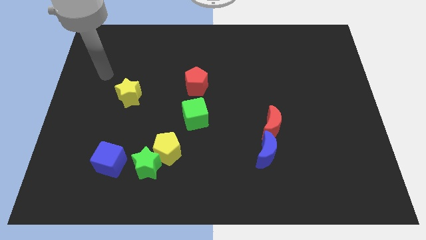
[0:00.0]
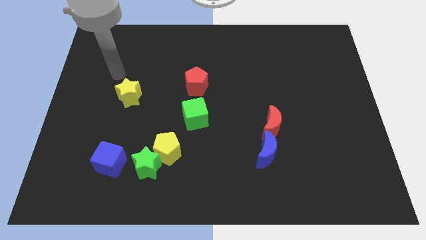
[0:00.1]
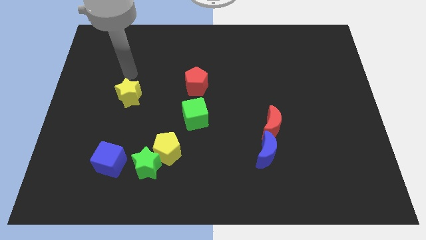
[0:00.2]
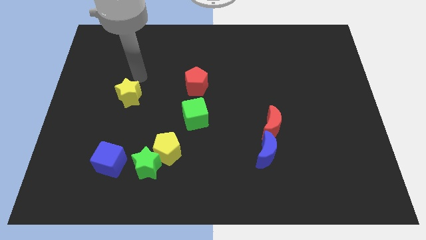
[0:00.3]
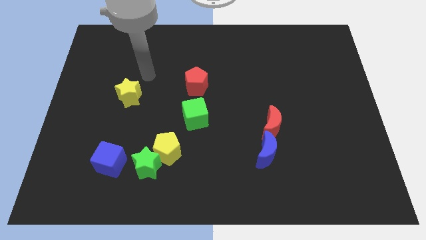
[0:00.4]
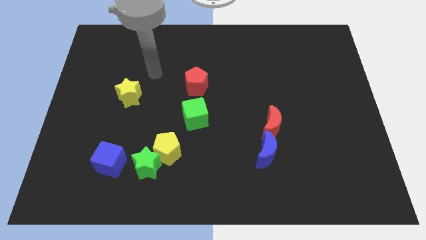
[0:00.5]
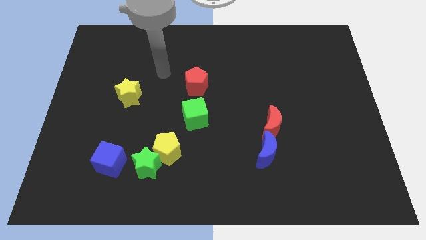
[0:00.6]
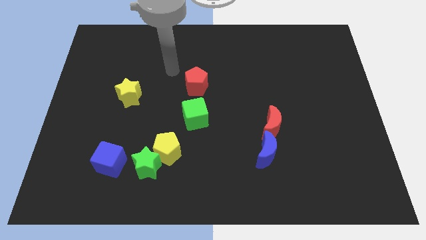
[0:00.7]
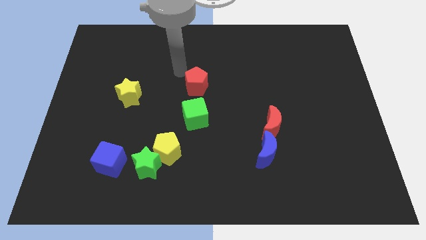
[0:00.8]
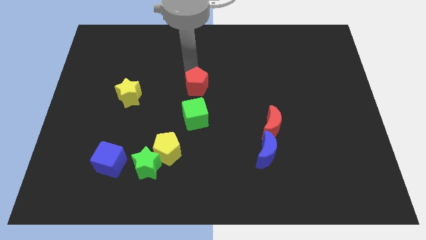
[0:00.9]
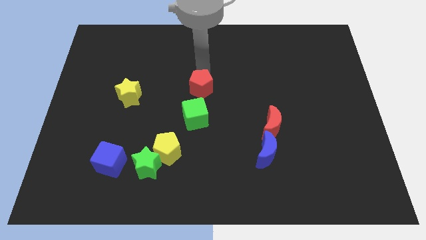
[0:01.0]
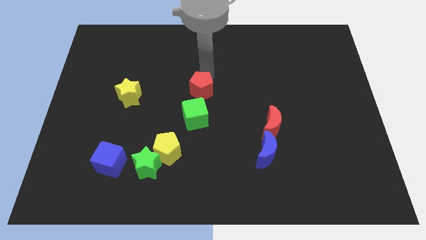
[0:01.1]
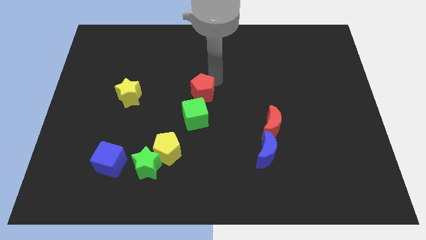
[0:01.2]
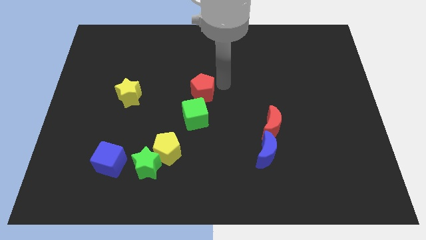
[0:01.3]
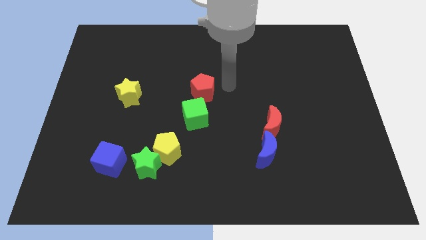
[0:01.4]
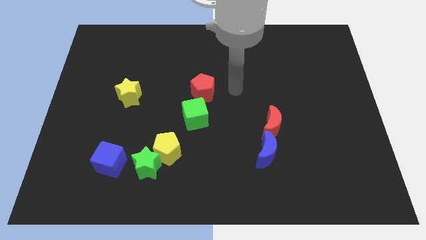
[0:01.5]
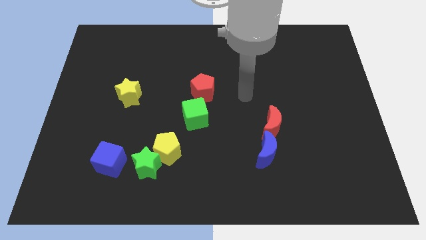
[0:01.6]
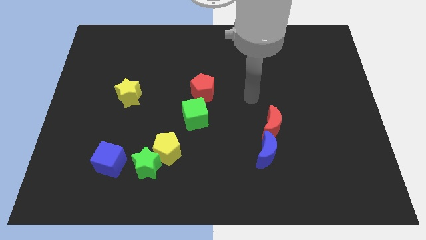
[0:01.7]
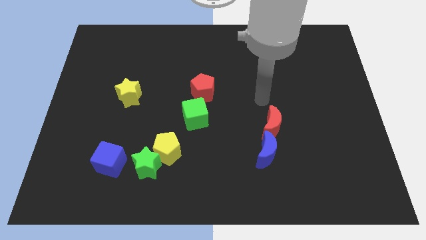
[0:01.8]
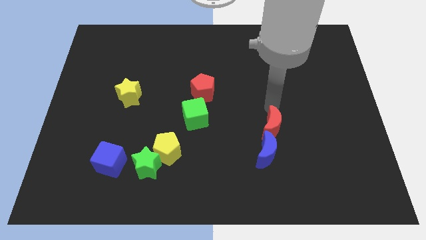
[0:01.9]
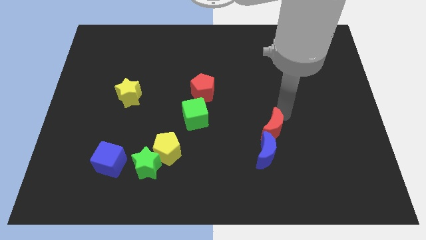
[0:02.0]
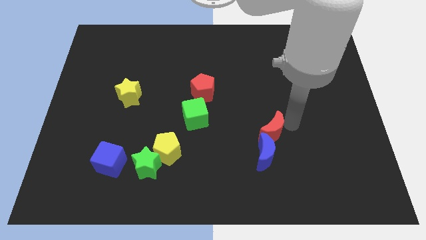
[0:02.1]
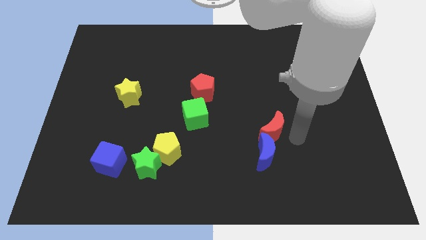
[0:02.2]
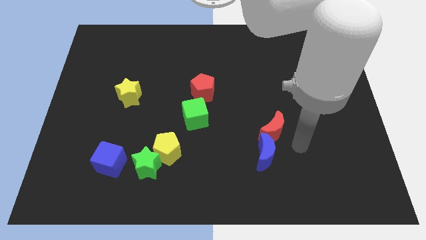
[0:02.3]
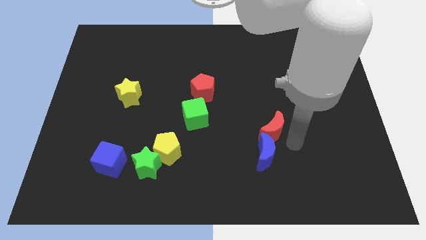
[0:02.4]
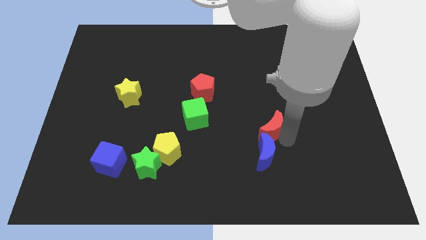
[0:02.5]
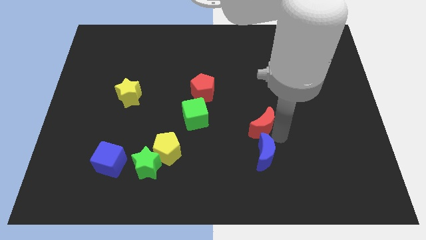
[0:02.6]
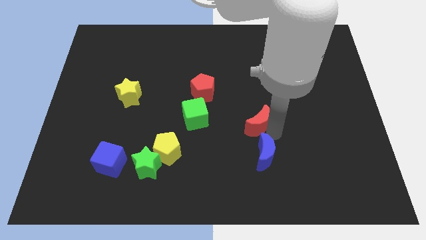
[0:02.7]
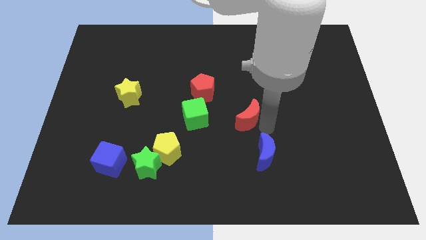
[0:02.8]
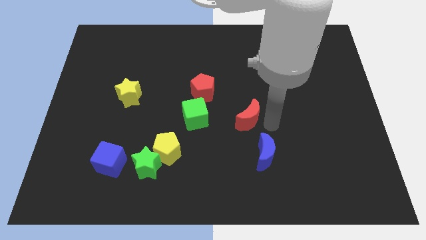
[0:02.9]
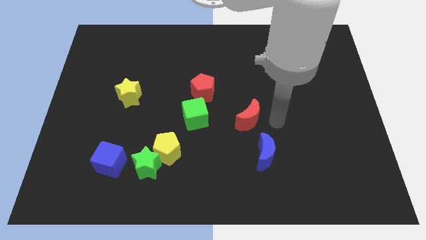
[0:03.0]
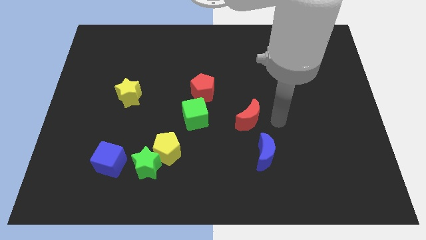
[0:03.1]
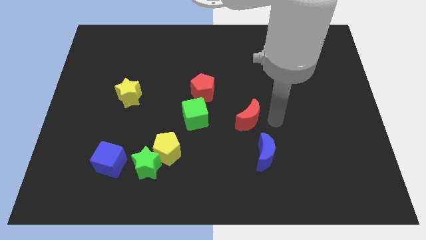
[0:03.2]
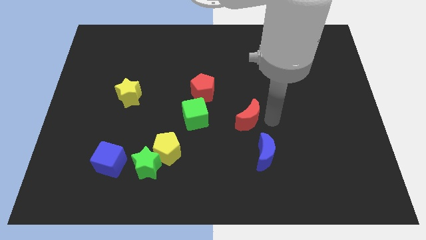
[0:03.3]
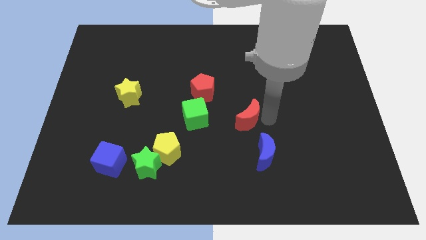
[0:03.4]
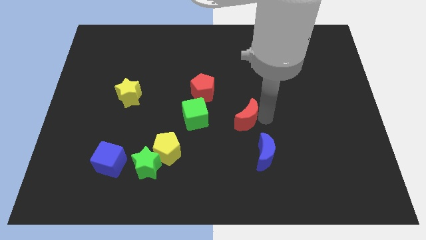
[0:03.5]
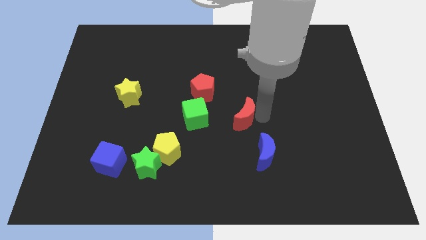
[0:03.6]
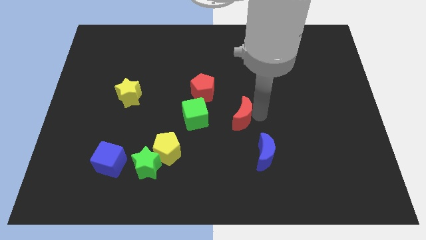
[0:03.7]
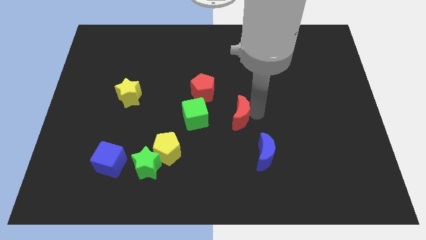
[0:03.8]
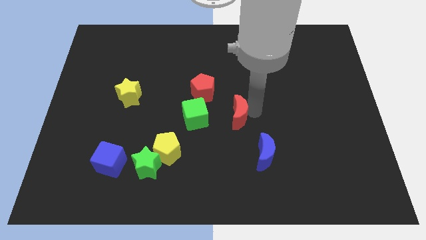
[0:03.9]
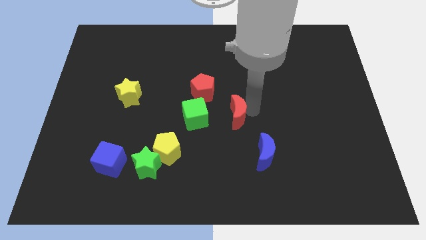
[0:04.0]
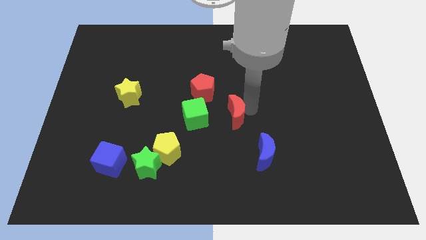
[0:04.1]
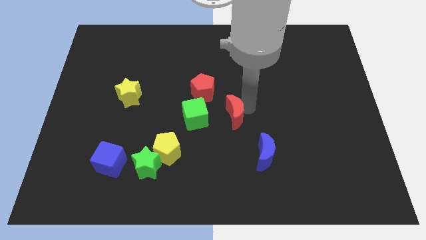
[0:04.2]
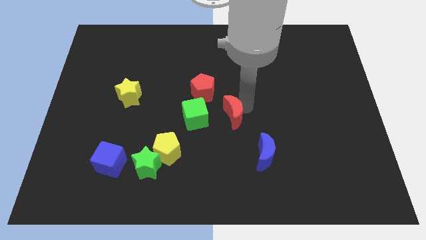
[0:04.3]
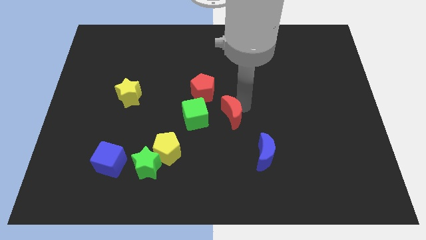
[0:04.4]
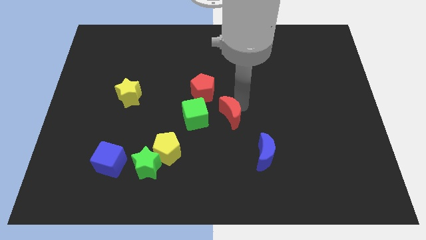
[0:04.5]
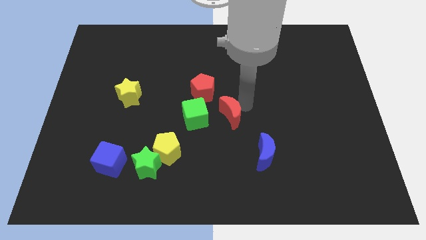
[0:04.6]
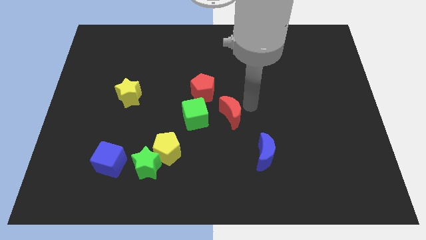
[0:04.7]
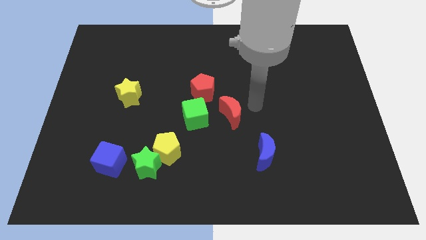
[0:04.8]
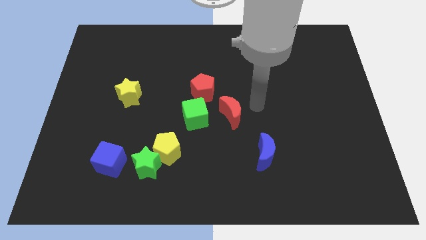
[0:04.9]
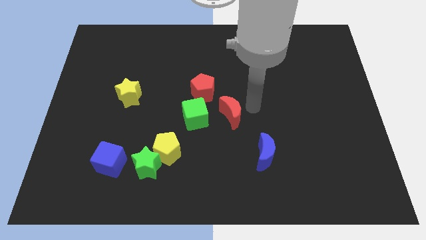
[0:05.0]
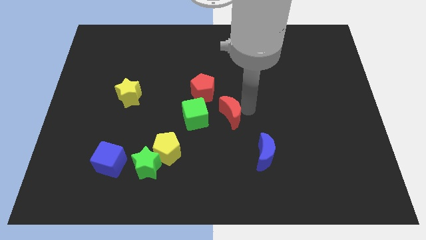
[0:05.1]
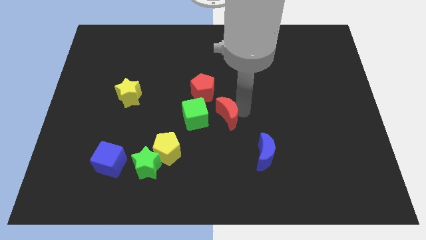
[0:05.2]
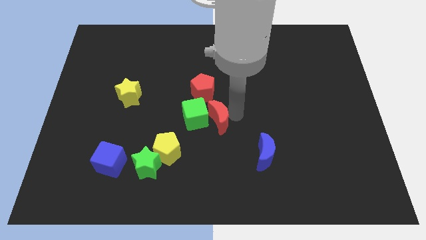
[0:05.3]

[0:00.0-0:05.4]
slide the red moon next to the green cube

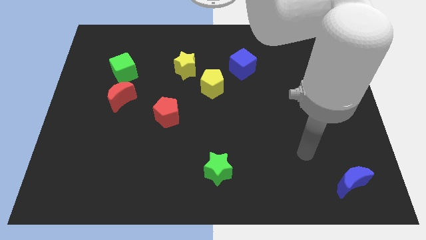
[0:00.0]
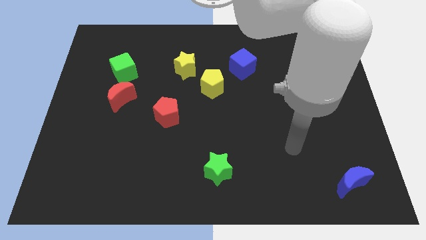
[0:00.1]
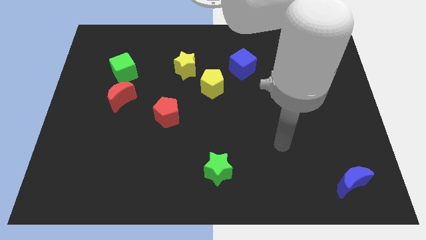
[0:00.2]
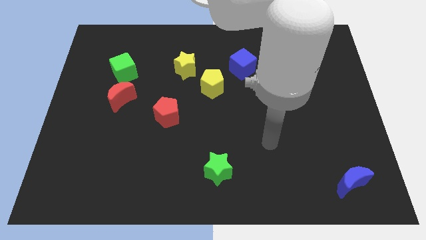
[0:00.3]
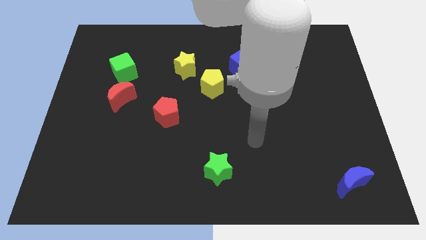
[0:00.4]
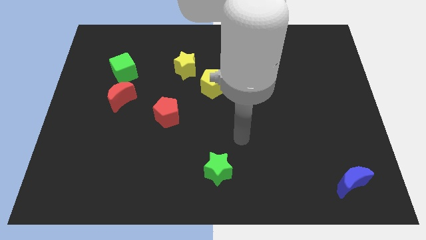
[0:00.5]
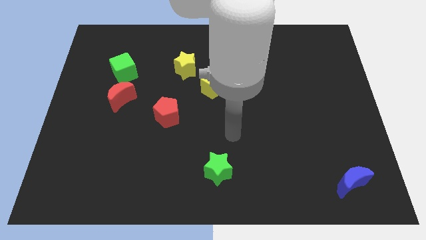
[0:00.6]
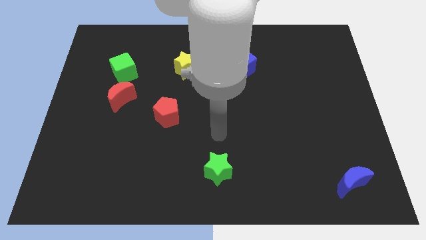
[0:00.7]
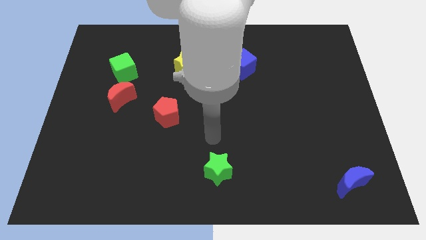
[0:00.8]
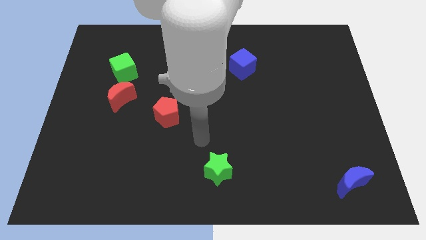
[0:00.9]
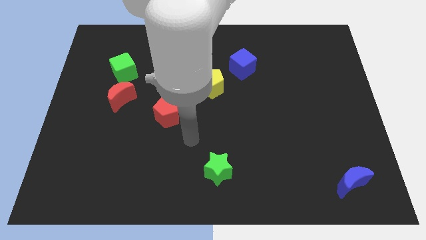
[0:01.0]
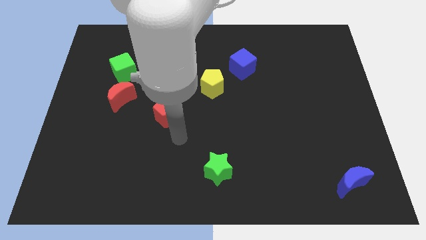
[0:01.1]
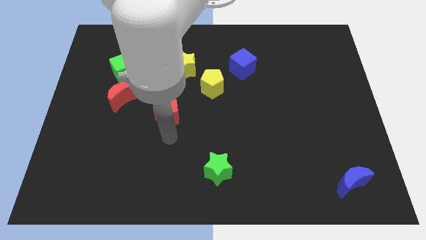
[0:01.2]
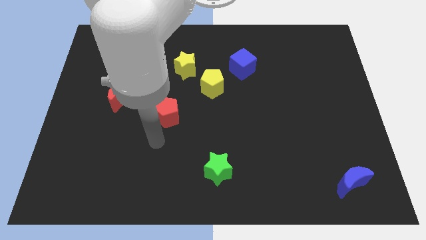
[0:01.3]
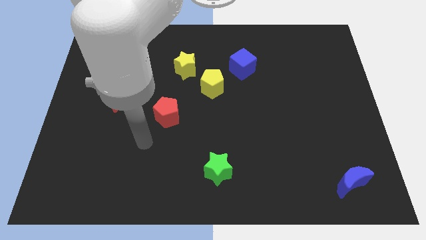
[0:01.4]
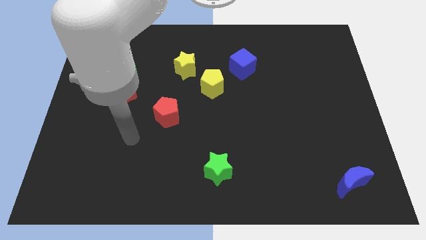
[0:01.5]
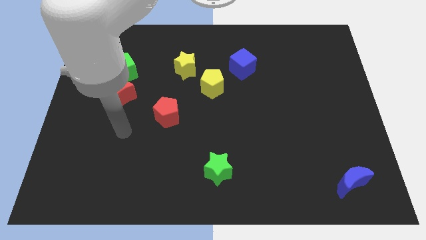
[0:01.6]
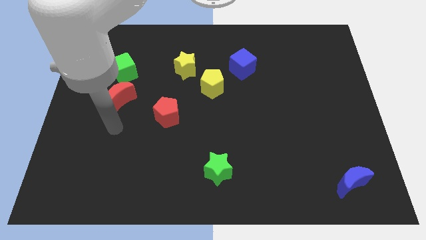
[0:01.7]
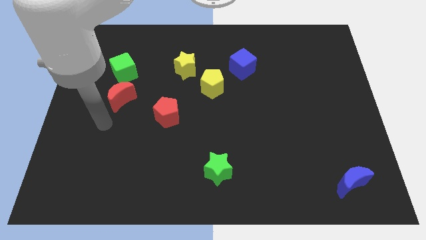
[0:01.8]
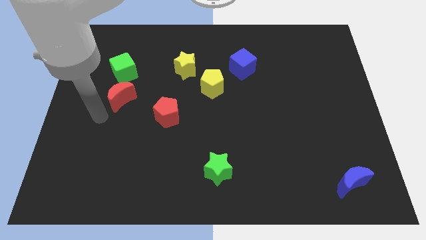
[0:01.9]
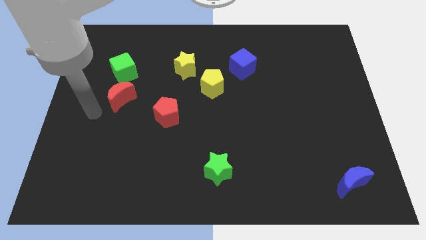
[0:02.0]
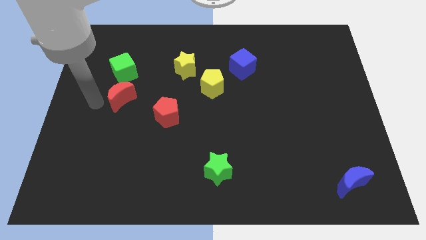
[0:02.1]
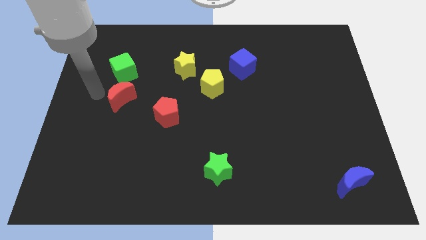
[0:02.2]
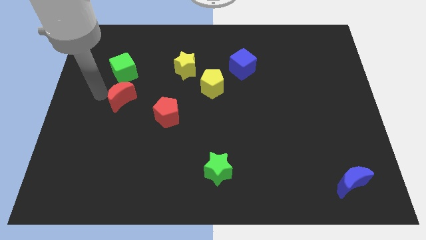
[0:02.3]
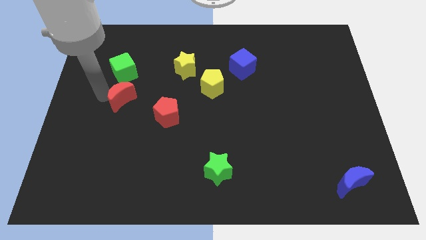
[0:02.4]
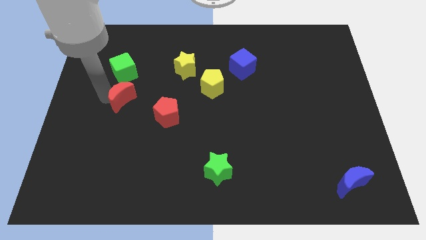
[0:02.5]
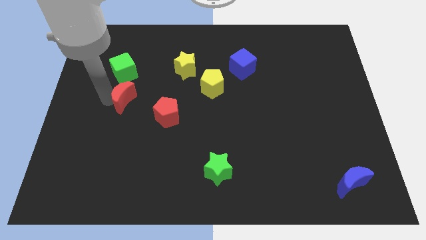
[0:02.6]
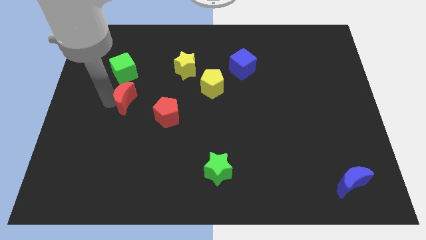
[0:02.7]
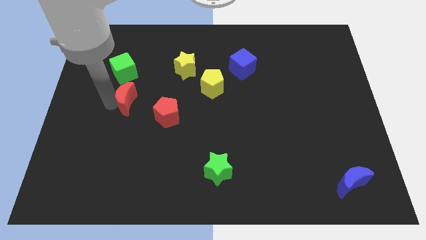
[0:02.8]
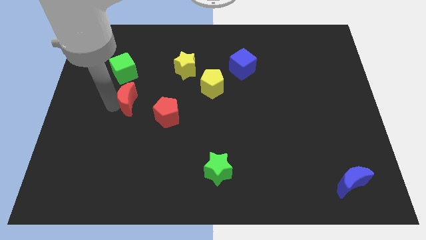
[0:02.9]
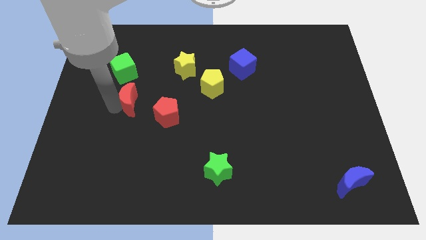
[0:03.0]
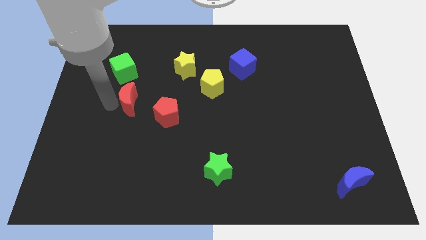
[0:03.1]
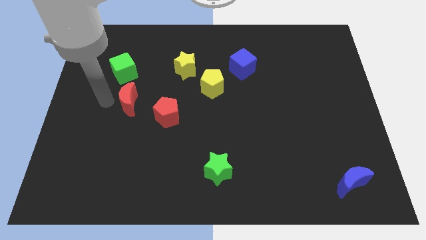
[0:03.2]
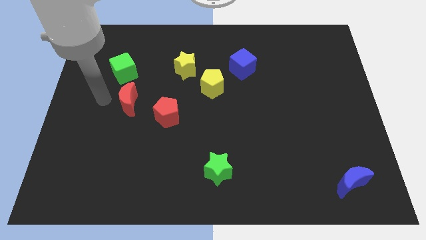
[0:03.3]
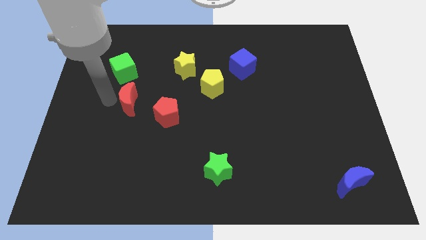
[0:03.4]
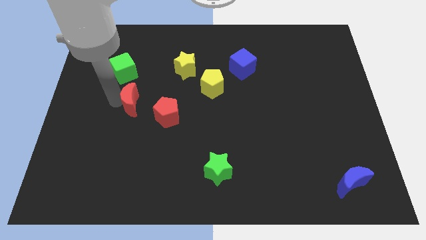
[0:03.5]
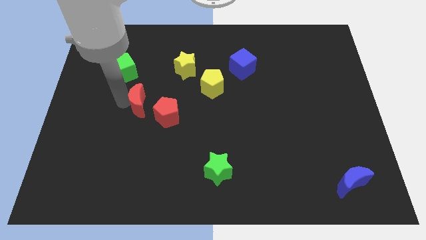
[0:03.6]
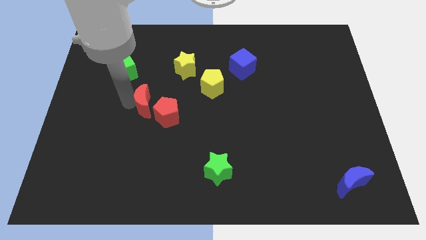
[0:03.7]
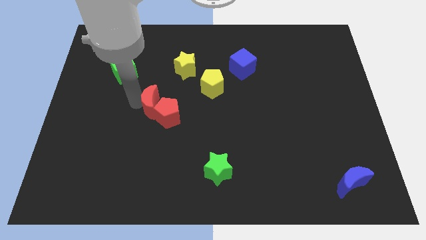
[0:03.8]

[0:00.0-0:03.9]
move the red moon close to the red pentagon
